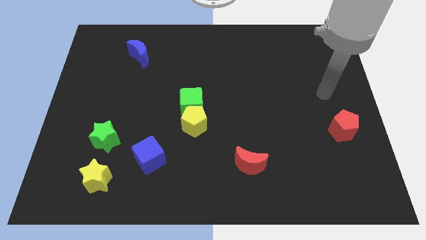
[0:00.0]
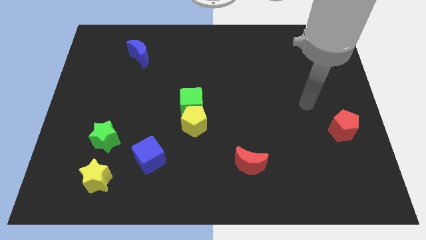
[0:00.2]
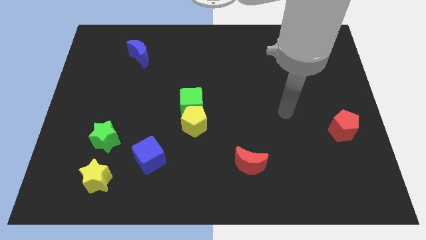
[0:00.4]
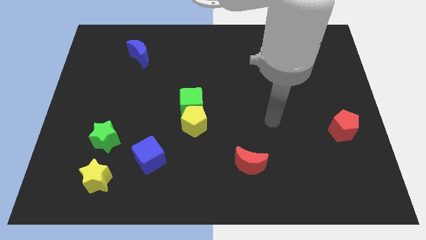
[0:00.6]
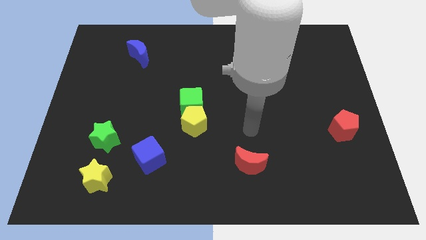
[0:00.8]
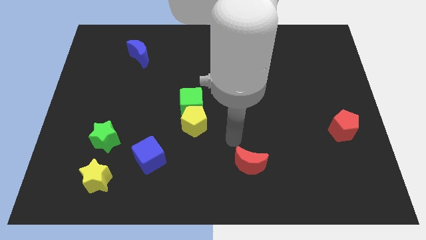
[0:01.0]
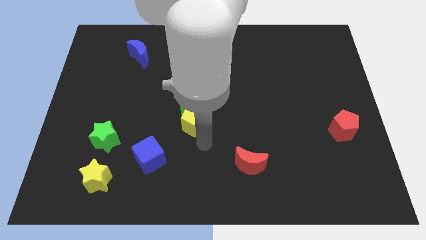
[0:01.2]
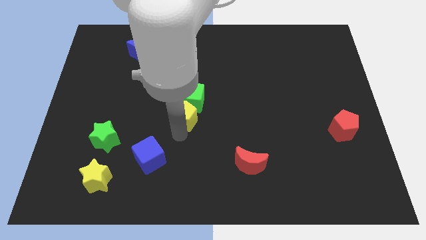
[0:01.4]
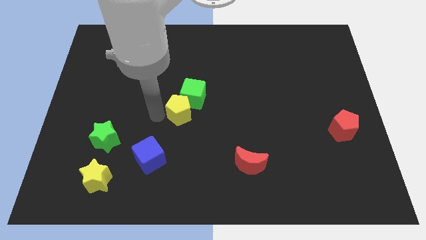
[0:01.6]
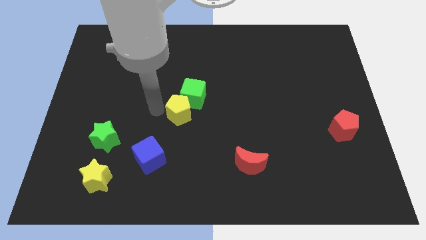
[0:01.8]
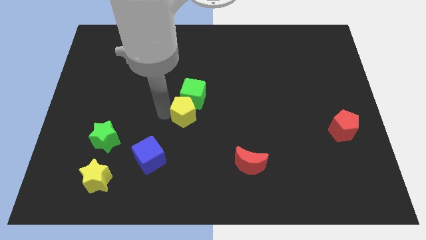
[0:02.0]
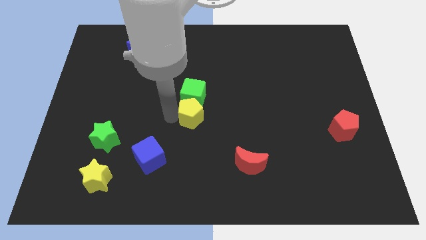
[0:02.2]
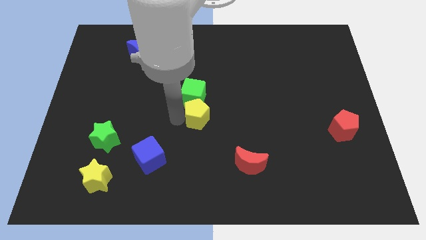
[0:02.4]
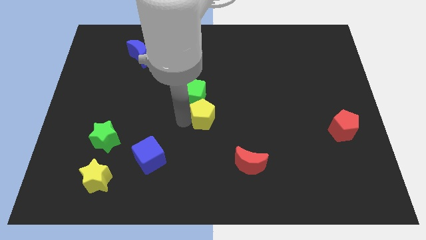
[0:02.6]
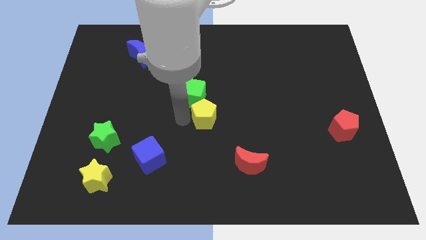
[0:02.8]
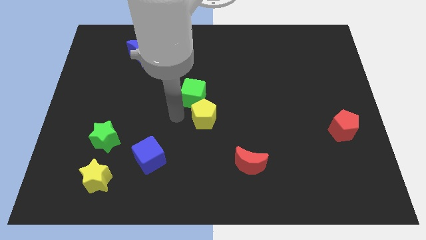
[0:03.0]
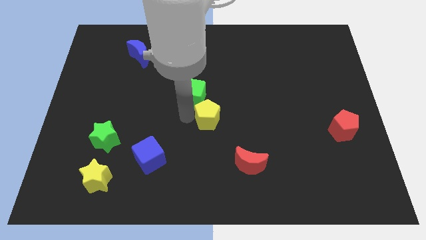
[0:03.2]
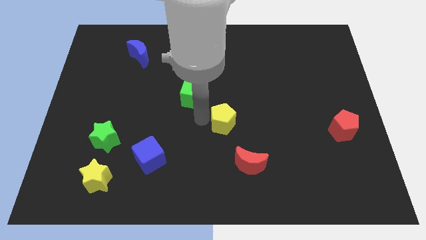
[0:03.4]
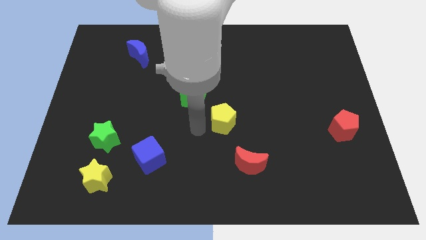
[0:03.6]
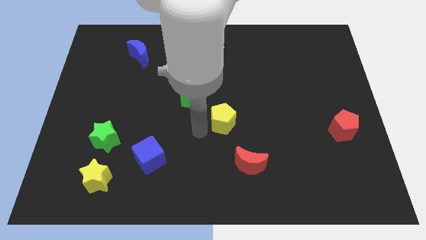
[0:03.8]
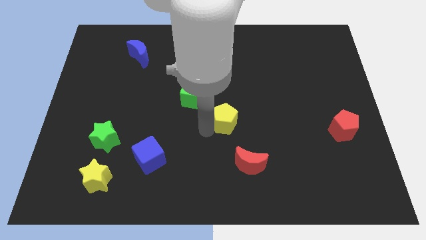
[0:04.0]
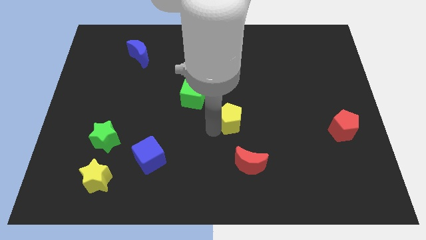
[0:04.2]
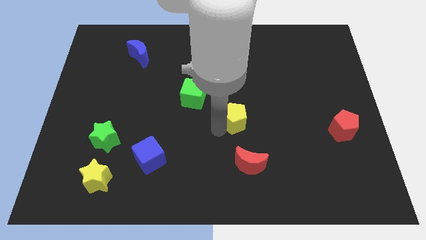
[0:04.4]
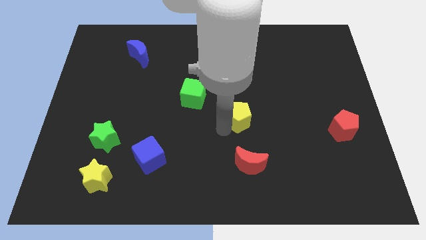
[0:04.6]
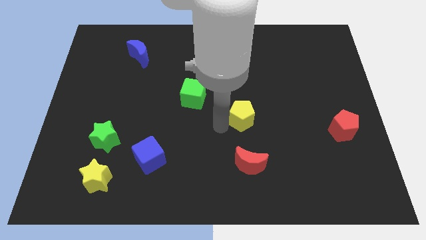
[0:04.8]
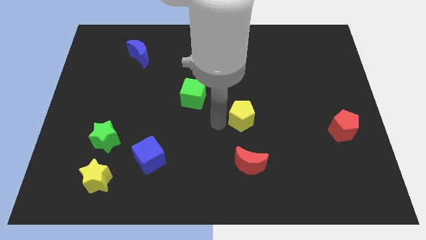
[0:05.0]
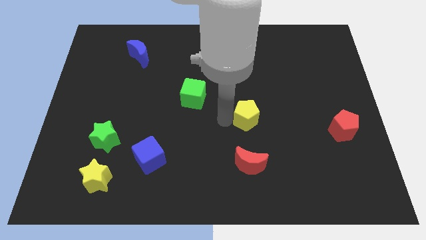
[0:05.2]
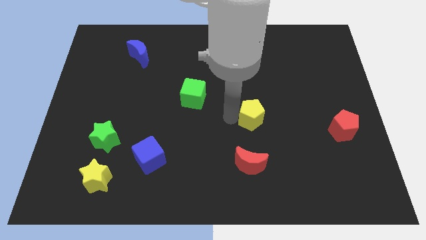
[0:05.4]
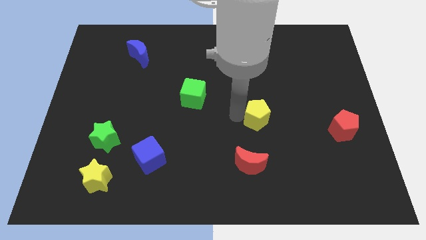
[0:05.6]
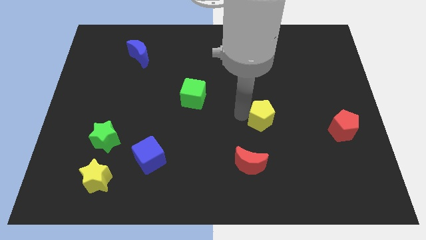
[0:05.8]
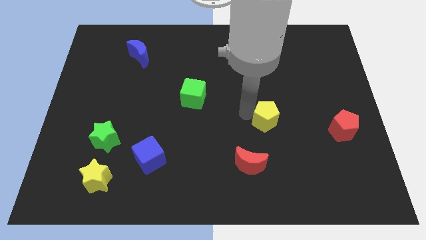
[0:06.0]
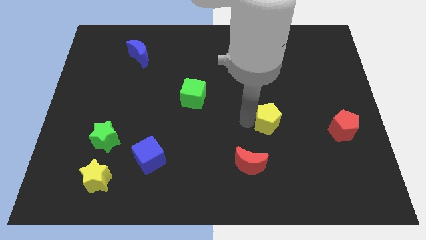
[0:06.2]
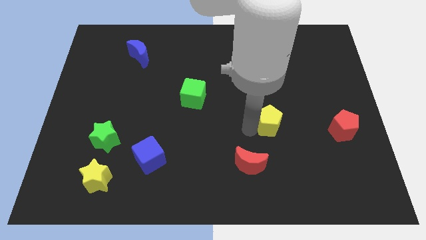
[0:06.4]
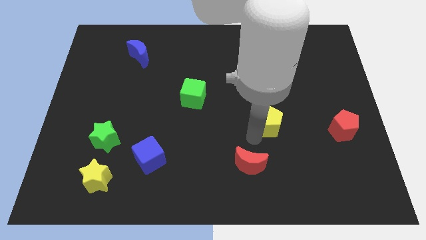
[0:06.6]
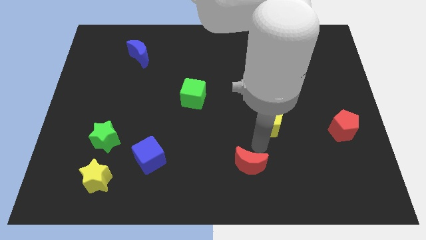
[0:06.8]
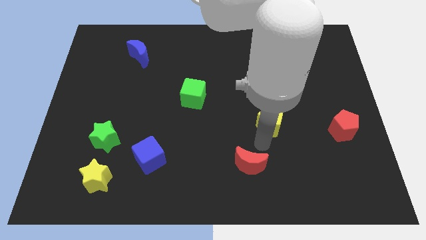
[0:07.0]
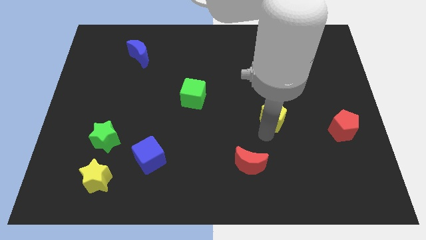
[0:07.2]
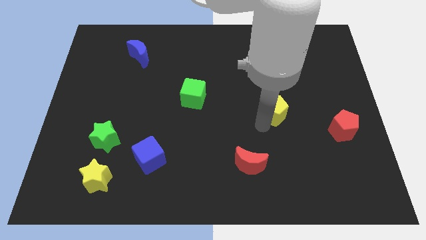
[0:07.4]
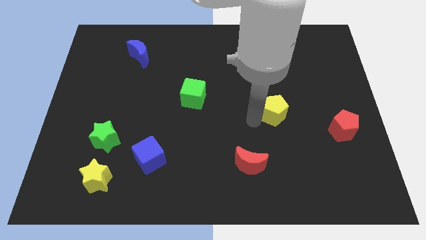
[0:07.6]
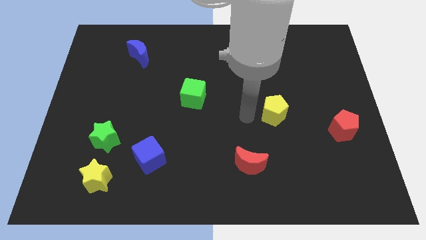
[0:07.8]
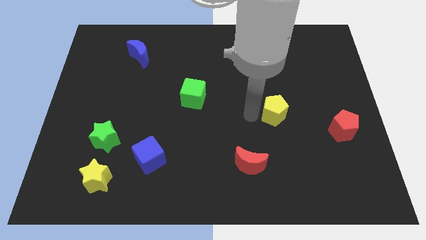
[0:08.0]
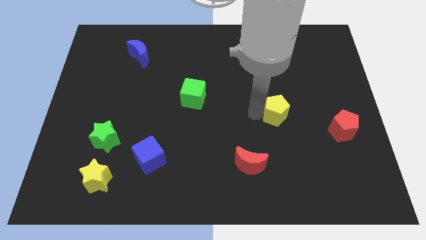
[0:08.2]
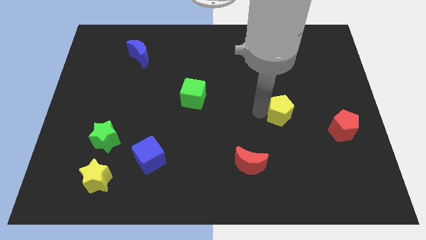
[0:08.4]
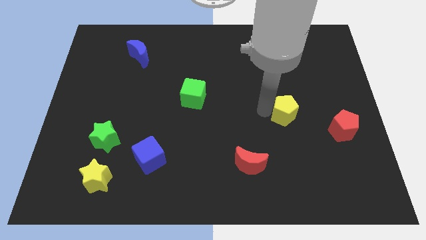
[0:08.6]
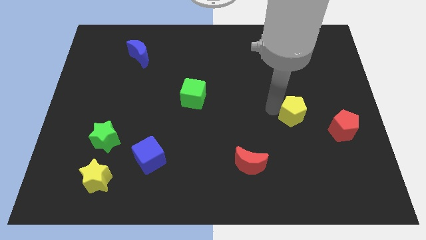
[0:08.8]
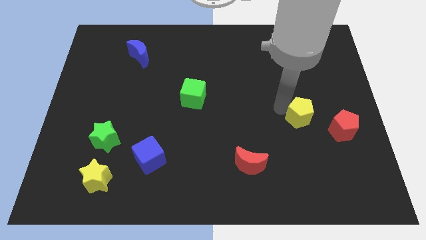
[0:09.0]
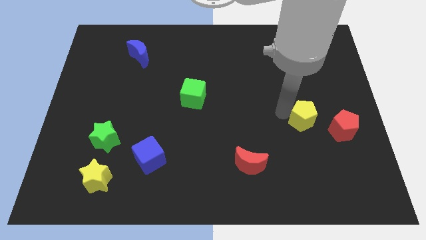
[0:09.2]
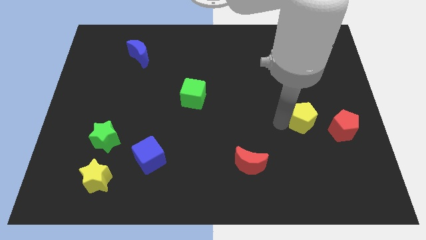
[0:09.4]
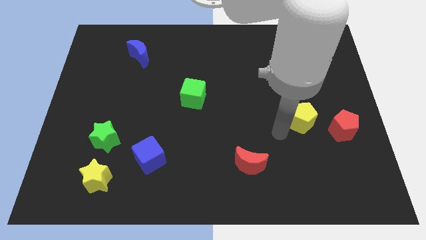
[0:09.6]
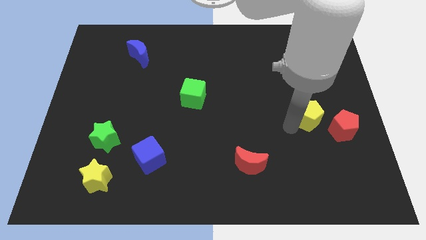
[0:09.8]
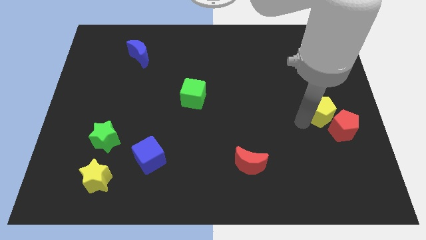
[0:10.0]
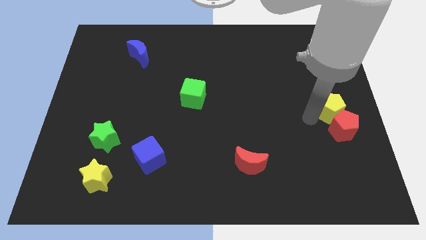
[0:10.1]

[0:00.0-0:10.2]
push the yellow pentagon to the right side of the board

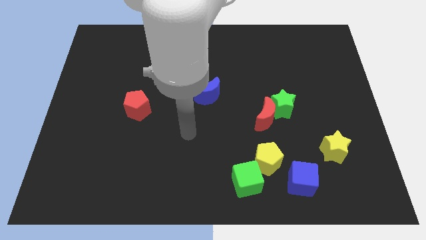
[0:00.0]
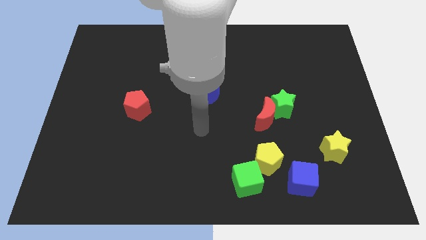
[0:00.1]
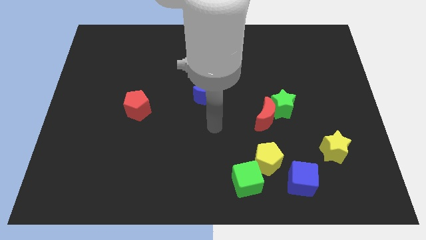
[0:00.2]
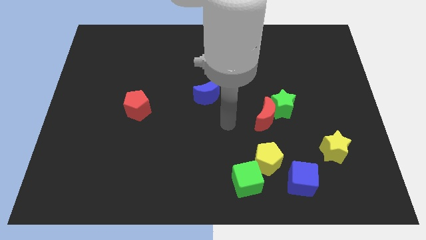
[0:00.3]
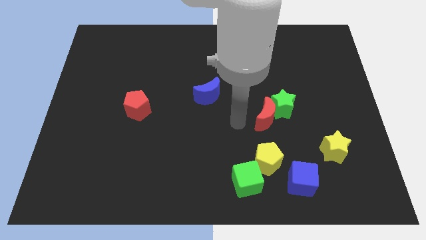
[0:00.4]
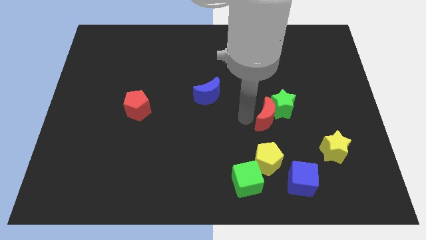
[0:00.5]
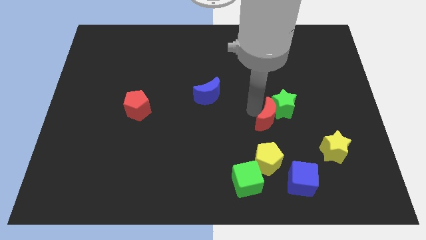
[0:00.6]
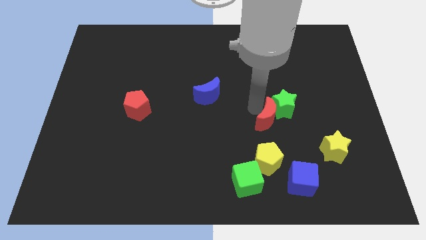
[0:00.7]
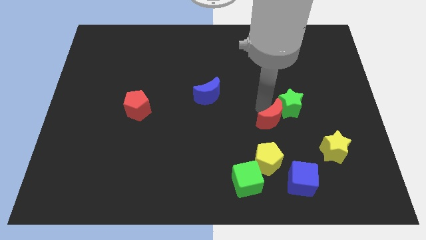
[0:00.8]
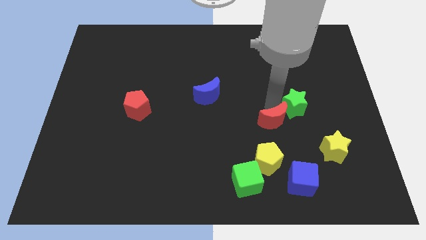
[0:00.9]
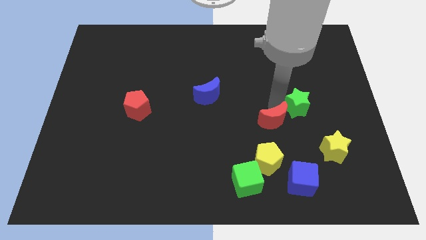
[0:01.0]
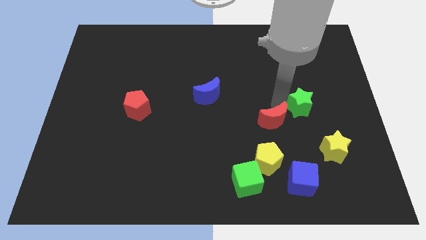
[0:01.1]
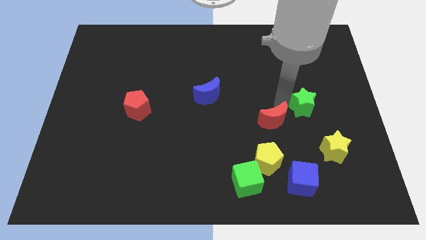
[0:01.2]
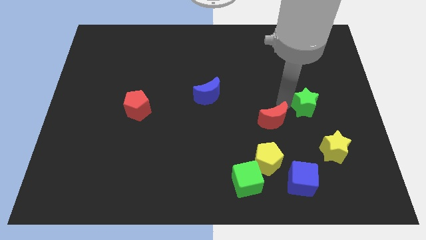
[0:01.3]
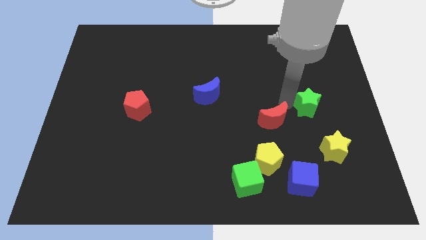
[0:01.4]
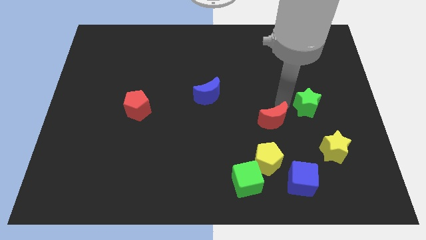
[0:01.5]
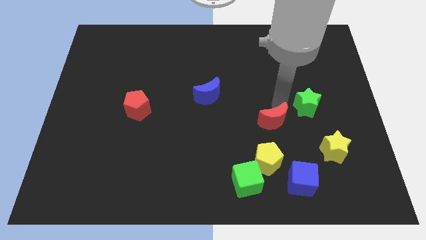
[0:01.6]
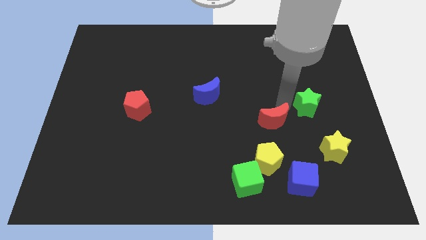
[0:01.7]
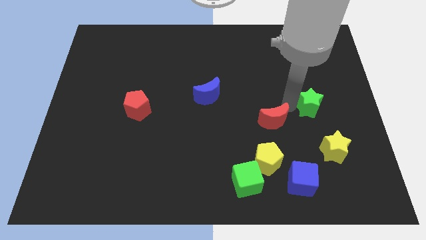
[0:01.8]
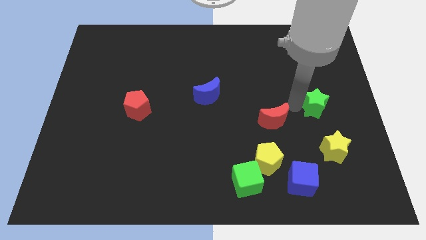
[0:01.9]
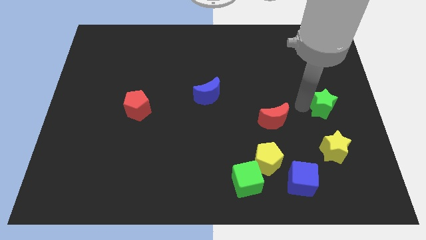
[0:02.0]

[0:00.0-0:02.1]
slide the green star to the right side
